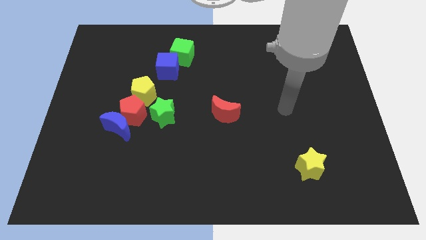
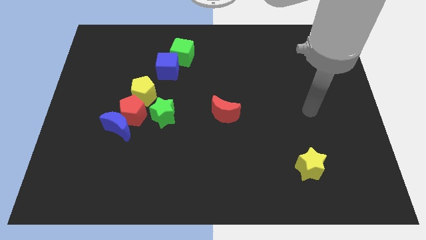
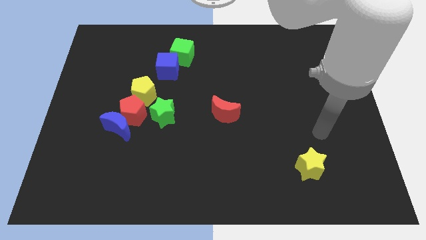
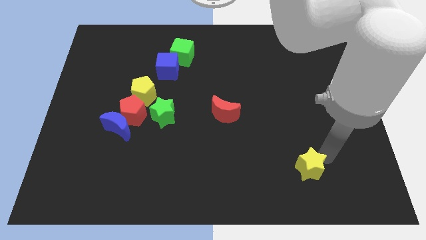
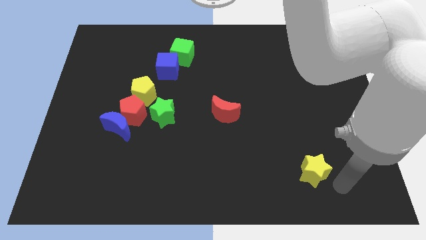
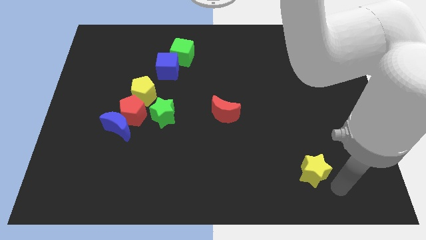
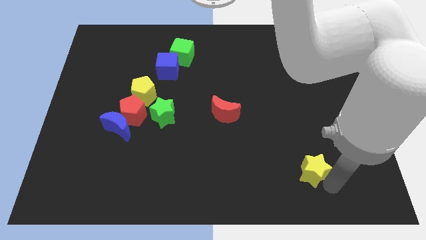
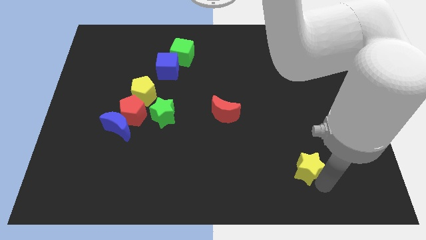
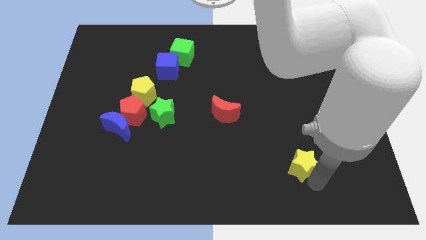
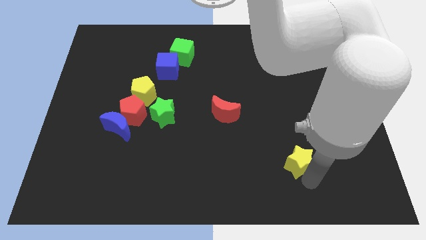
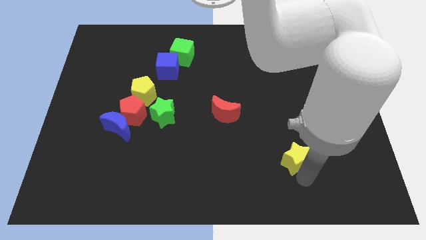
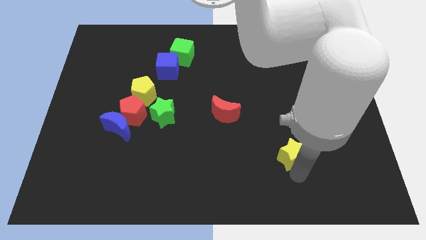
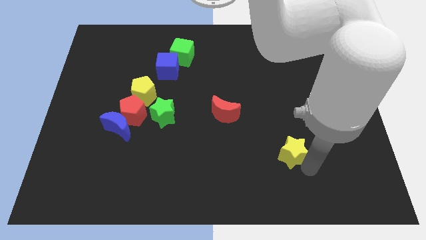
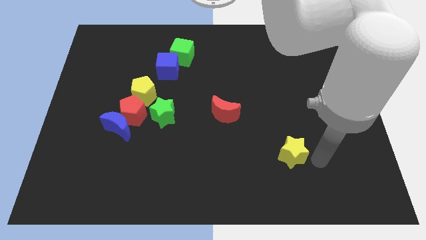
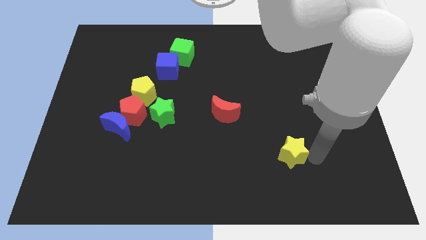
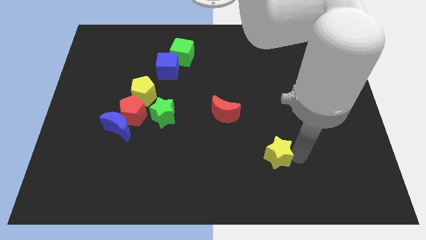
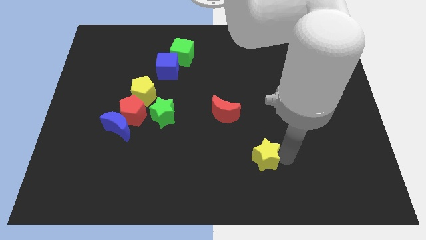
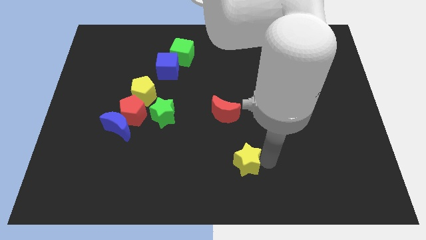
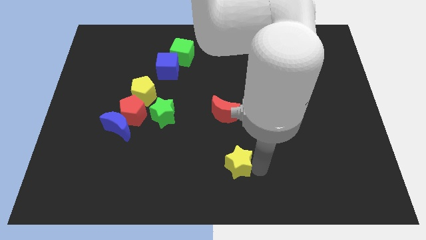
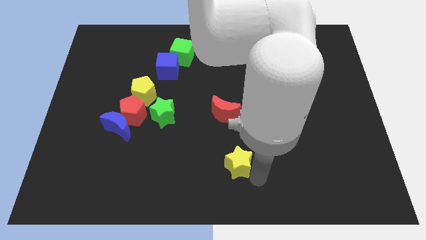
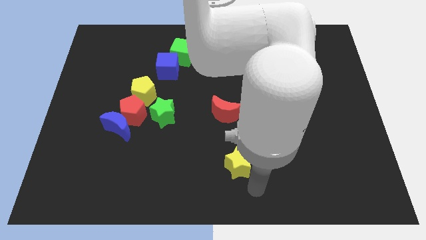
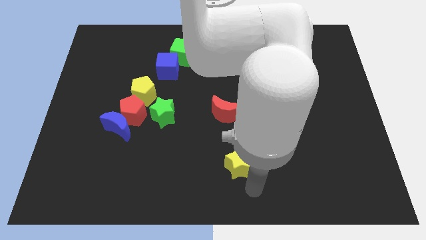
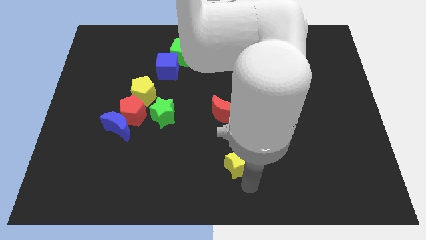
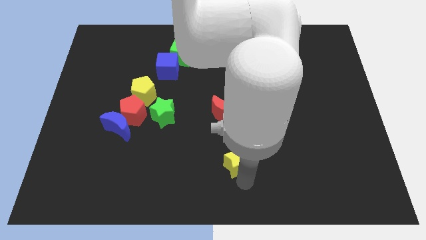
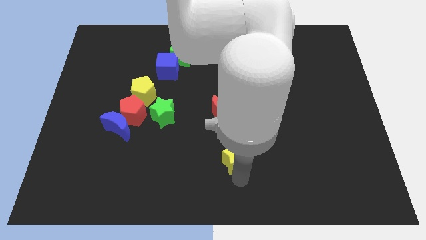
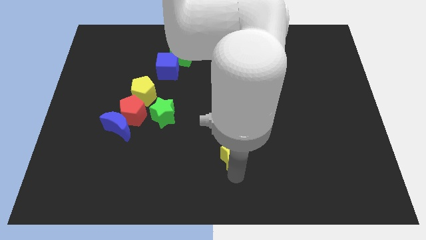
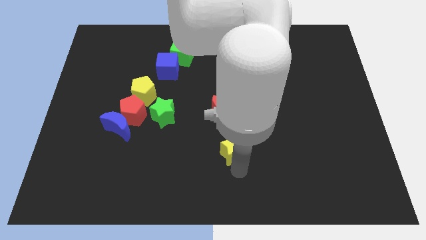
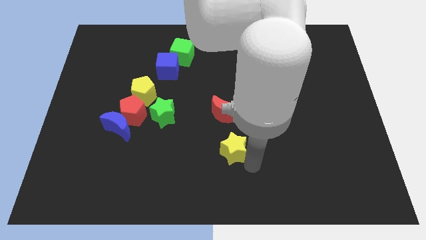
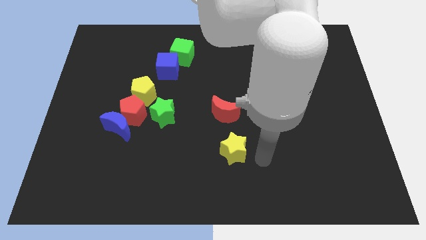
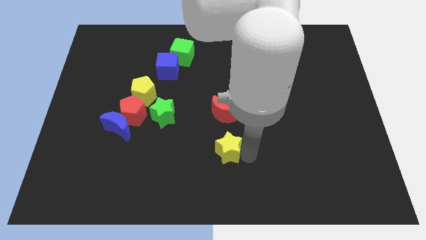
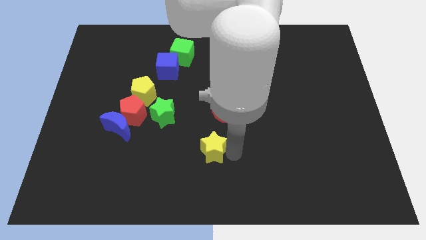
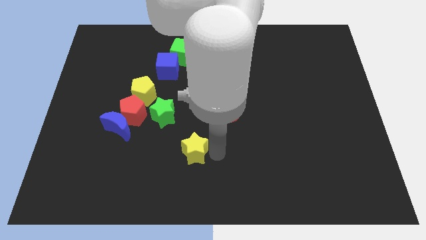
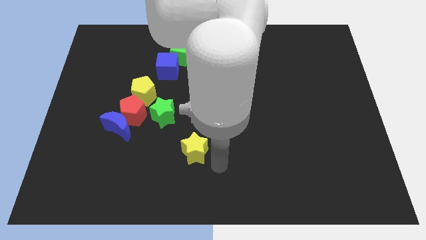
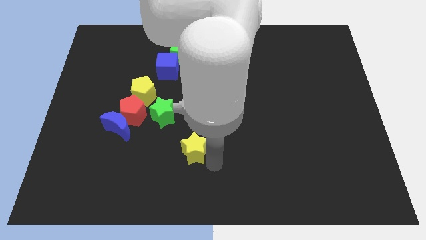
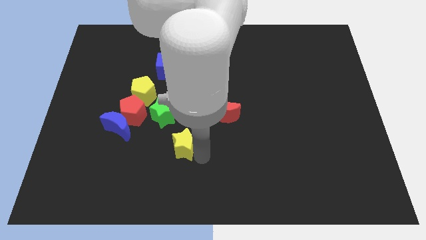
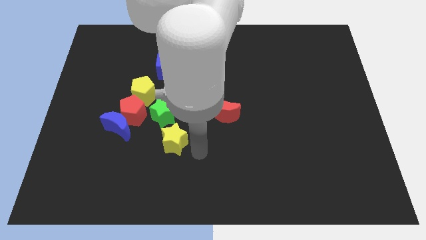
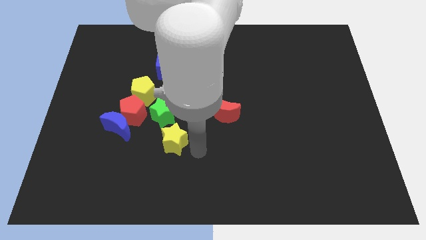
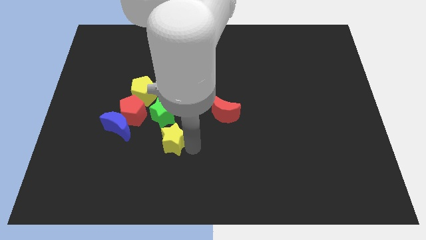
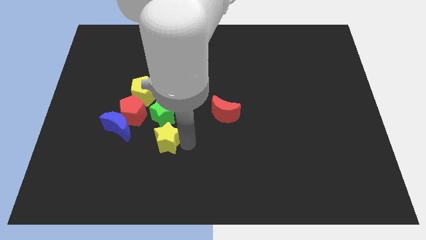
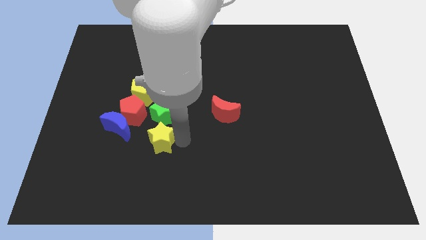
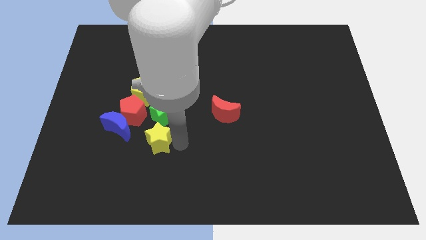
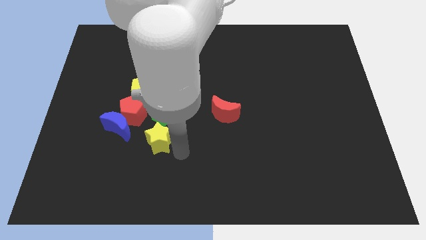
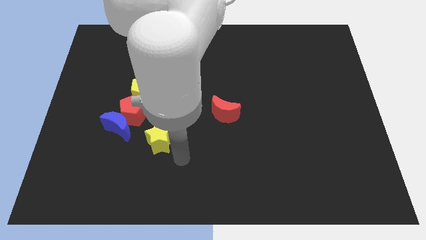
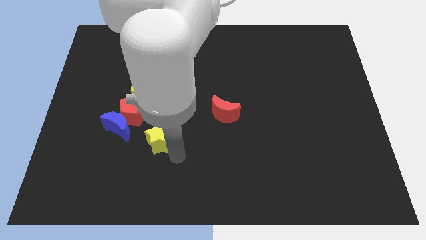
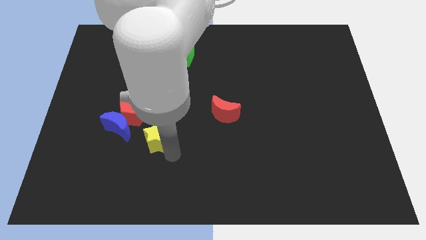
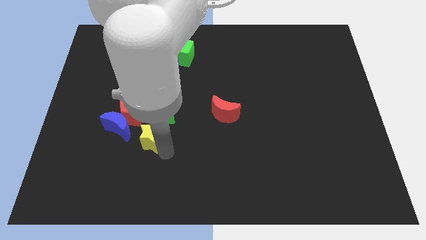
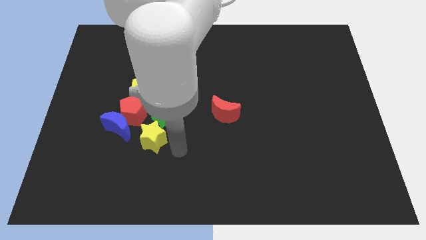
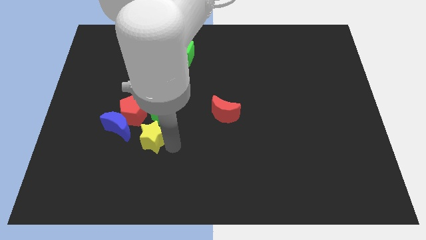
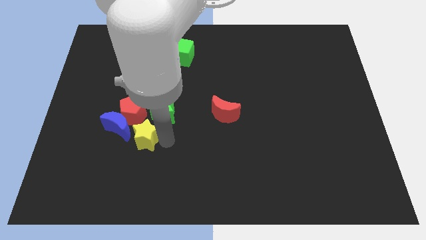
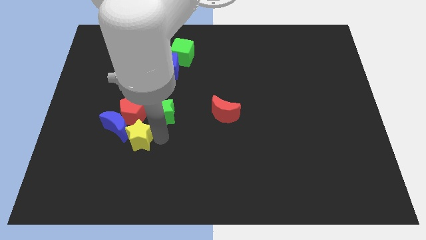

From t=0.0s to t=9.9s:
put the yellow star next to the blue moon

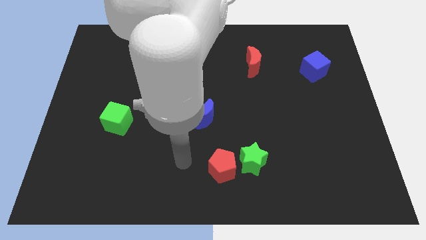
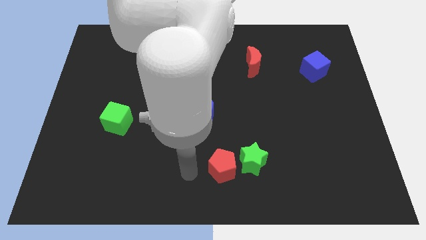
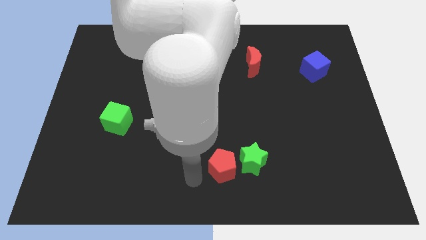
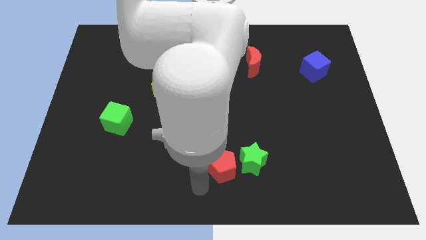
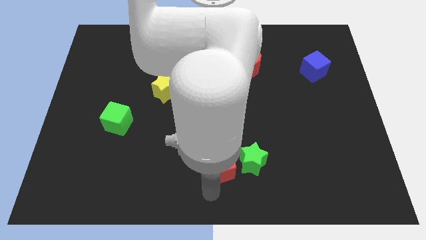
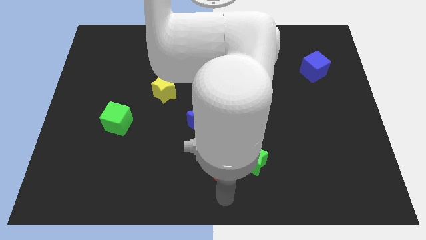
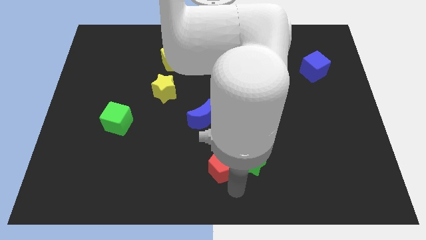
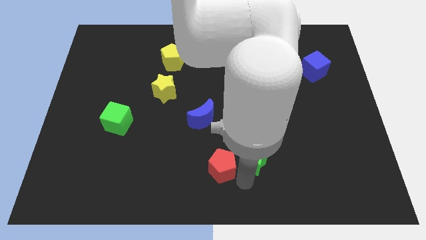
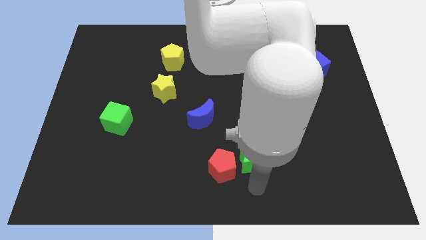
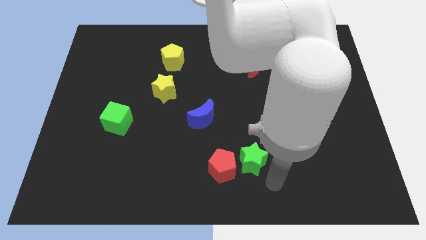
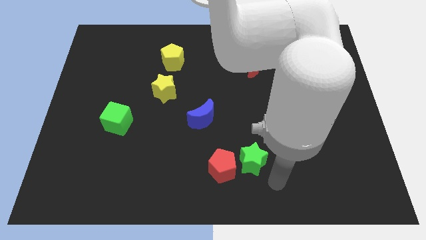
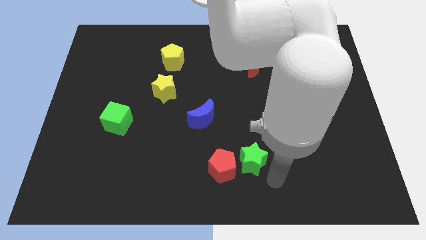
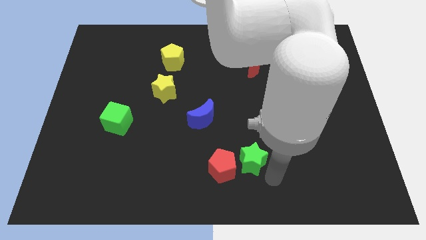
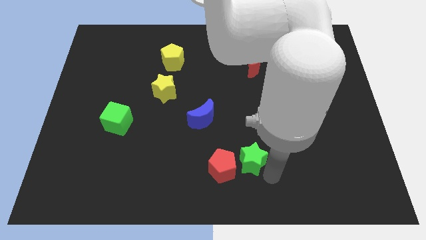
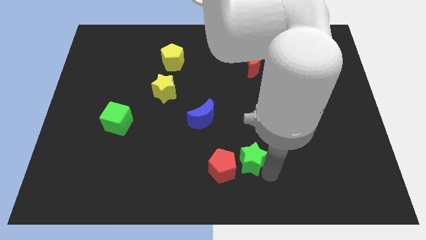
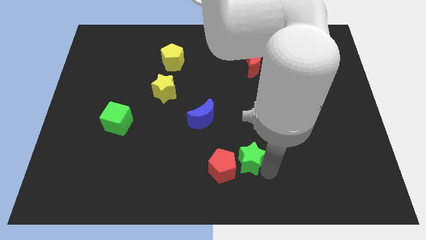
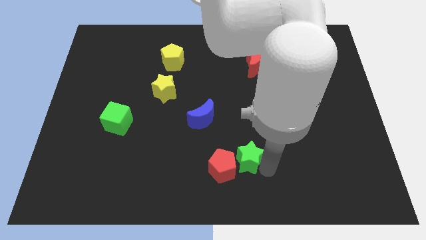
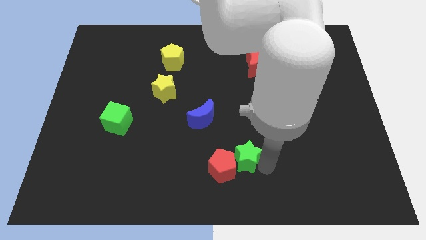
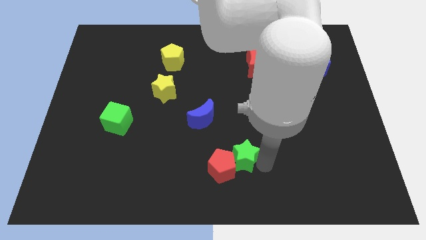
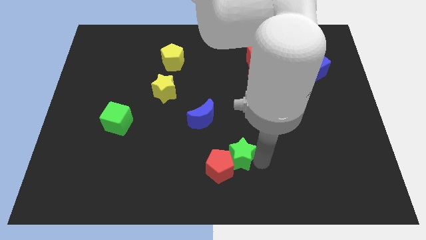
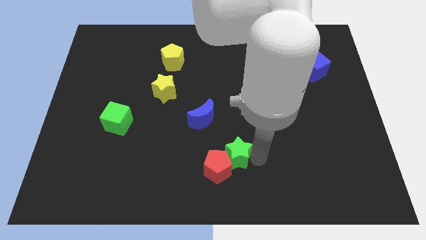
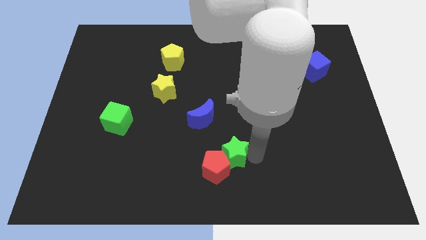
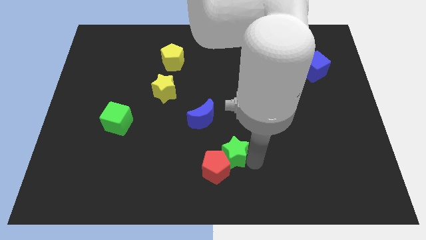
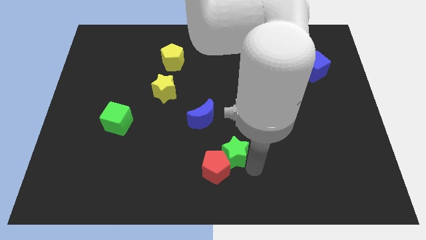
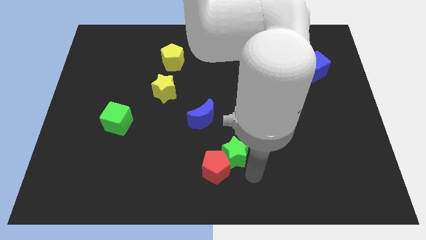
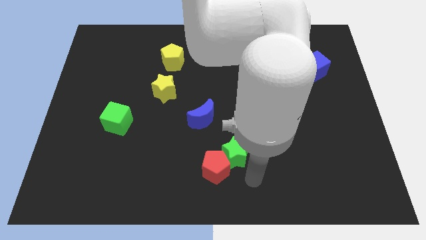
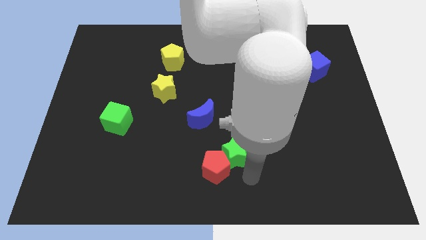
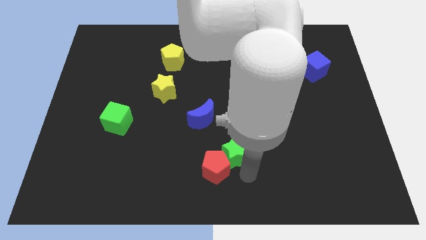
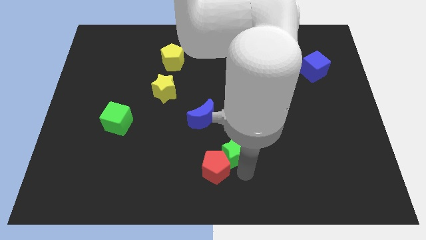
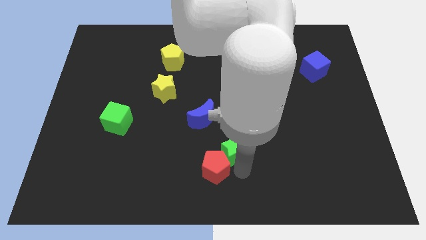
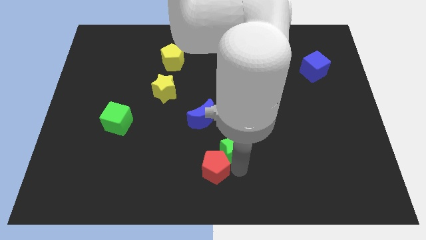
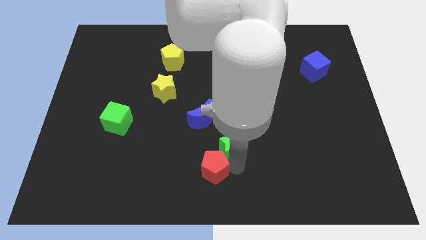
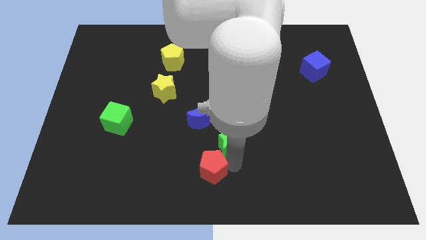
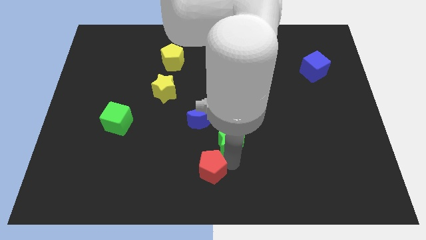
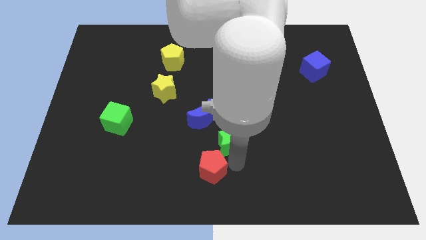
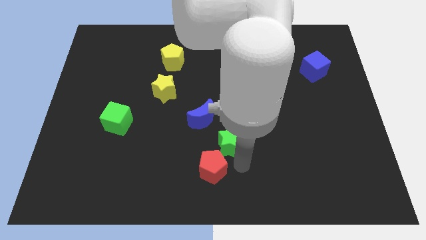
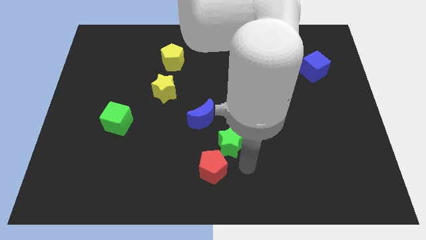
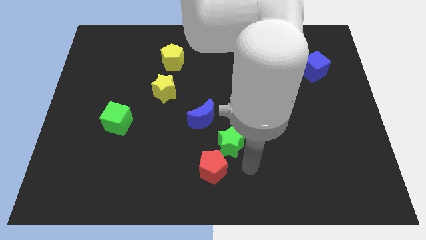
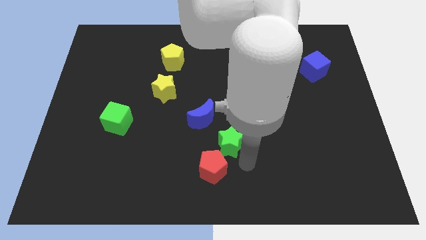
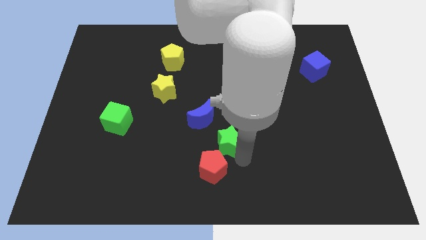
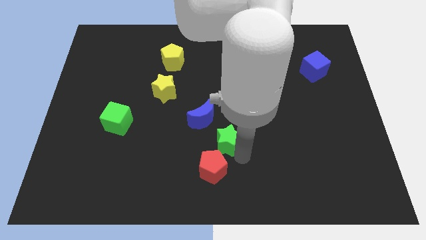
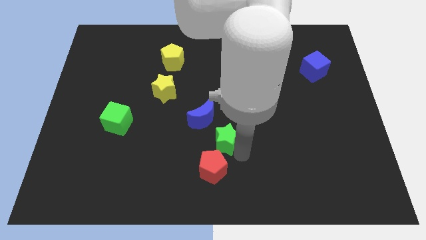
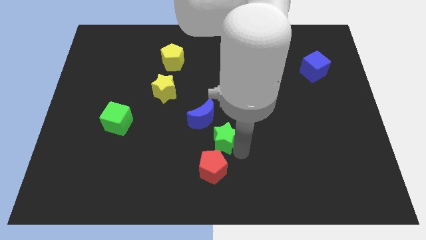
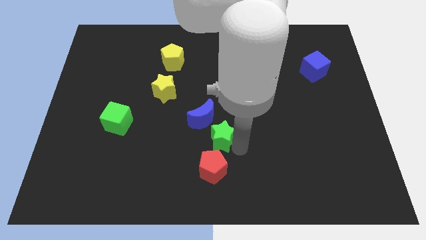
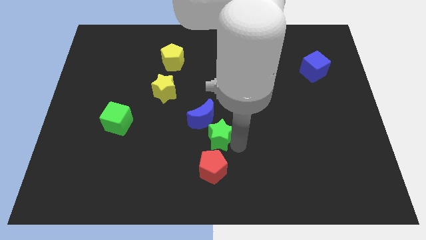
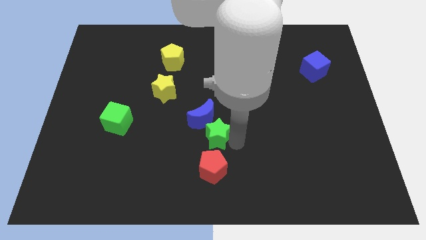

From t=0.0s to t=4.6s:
slide the green star next to the blue moon
